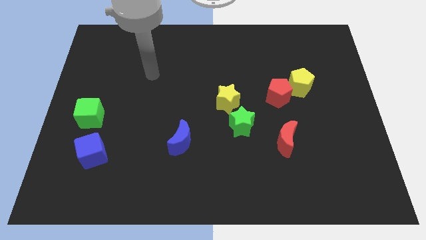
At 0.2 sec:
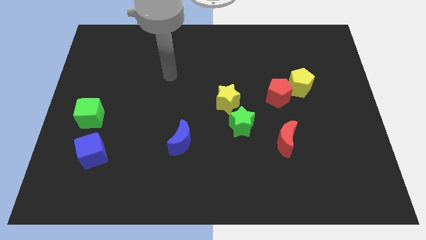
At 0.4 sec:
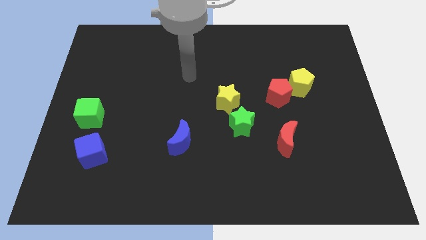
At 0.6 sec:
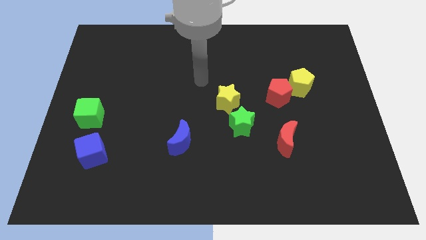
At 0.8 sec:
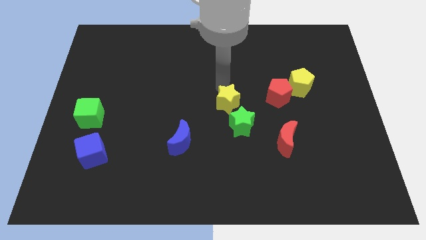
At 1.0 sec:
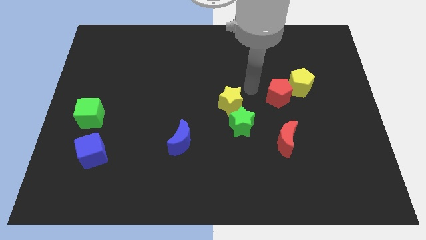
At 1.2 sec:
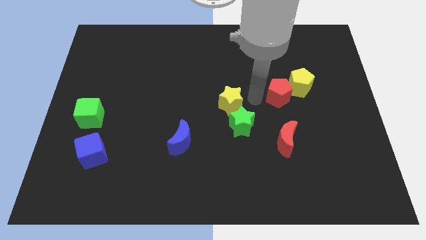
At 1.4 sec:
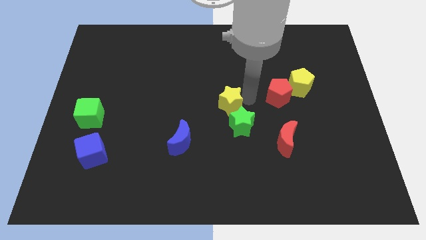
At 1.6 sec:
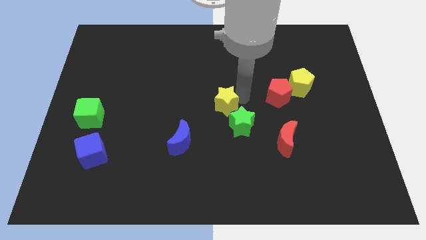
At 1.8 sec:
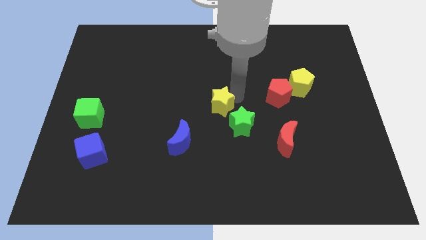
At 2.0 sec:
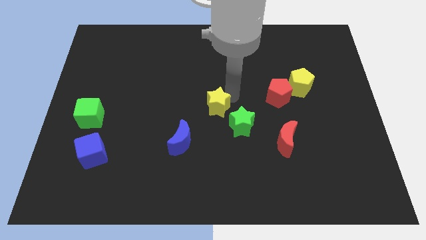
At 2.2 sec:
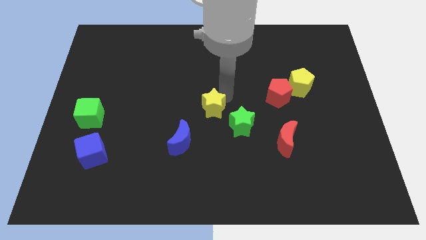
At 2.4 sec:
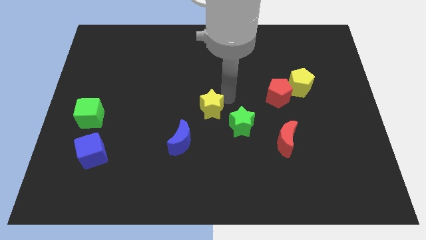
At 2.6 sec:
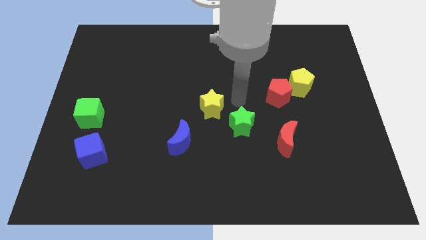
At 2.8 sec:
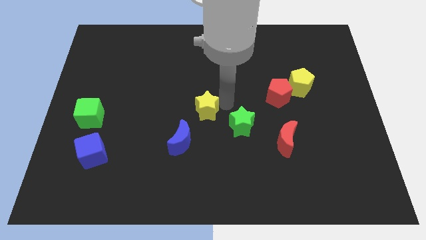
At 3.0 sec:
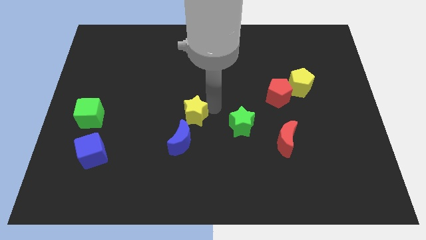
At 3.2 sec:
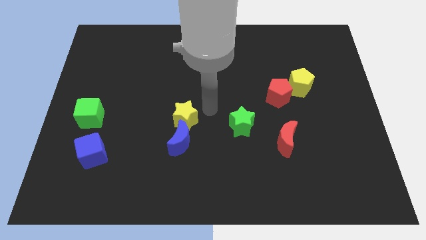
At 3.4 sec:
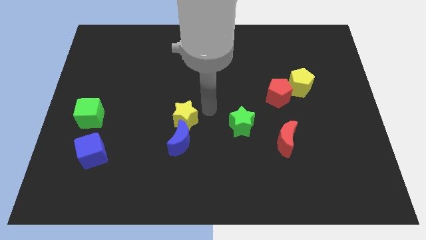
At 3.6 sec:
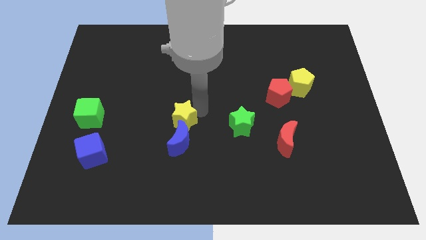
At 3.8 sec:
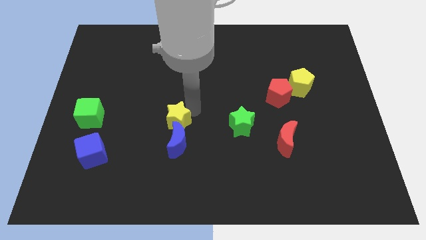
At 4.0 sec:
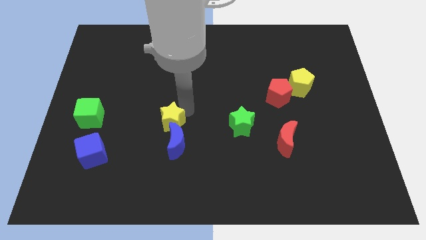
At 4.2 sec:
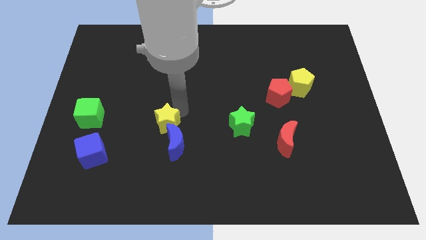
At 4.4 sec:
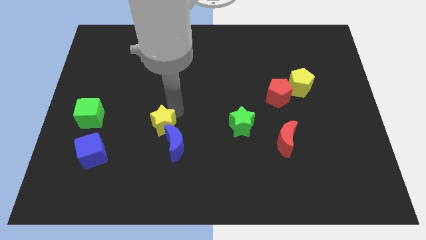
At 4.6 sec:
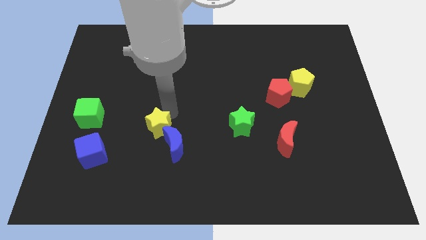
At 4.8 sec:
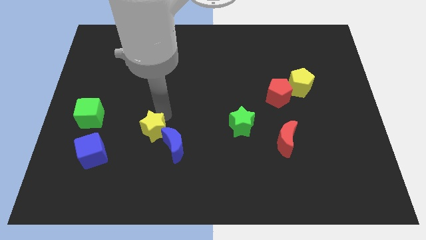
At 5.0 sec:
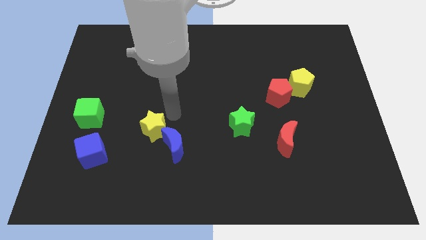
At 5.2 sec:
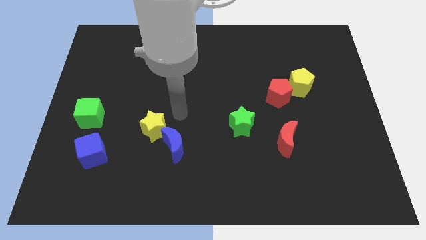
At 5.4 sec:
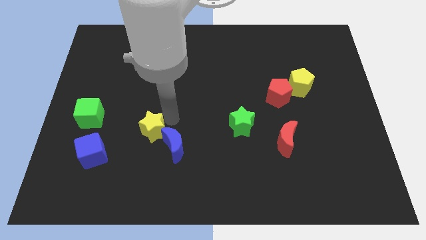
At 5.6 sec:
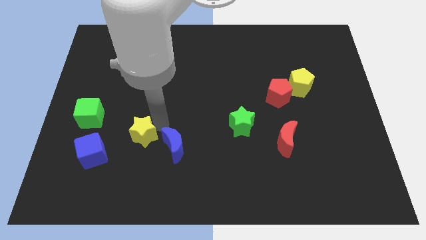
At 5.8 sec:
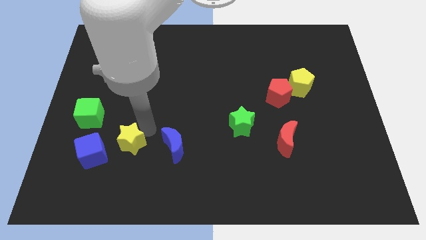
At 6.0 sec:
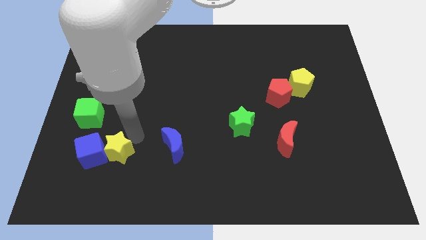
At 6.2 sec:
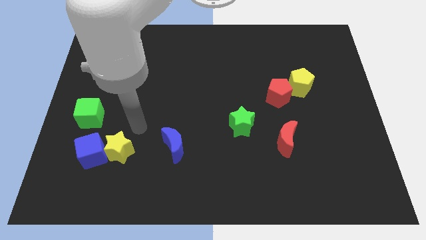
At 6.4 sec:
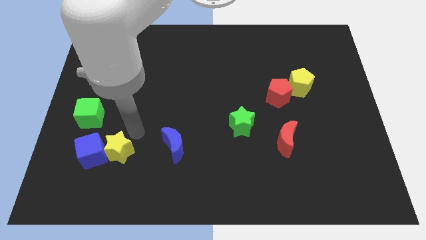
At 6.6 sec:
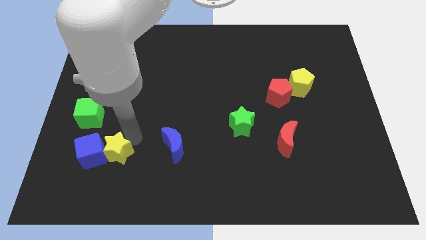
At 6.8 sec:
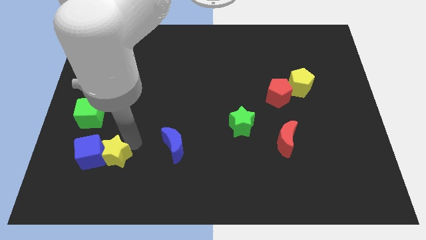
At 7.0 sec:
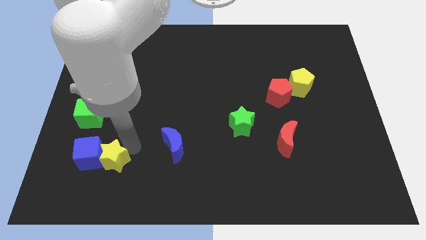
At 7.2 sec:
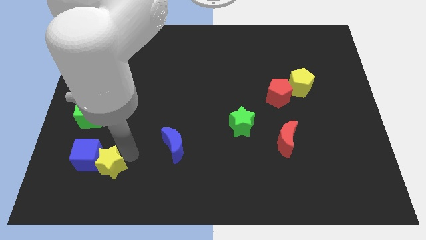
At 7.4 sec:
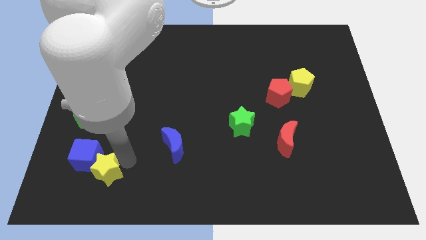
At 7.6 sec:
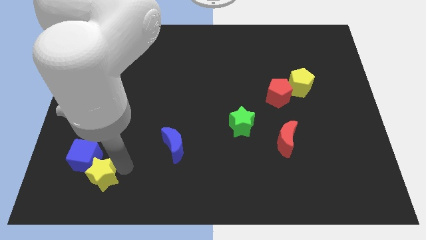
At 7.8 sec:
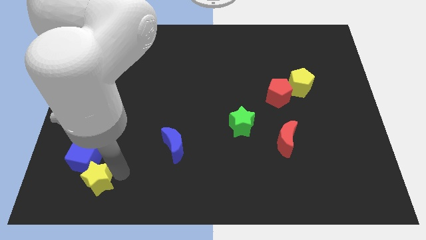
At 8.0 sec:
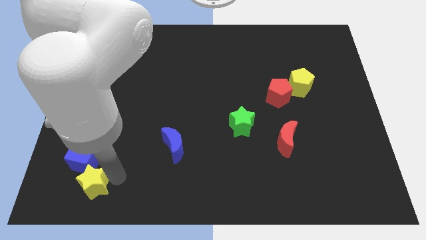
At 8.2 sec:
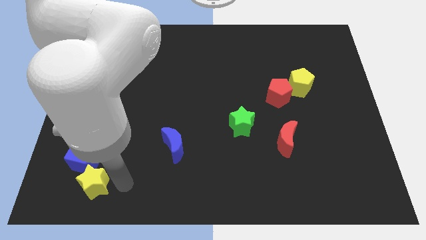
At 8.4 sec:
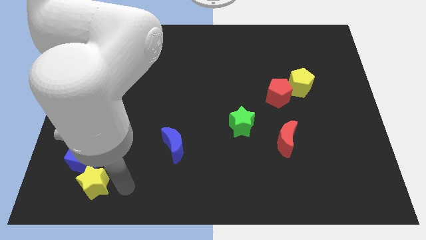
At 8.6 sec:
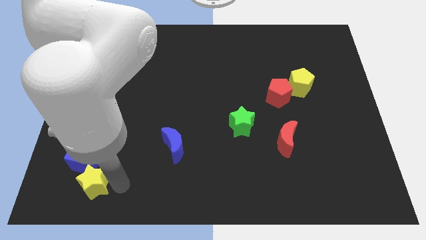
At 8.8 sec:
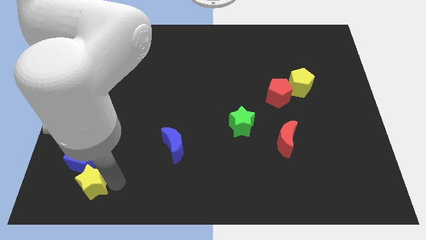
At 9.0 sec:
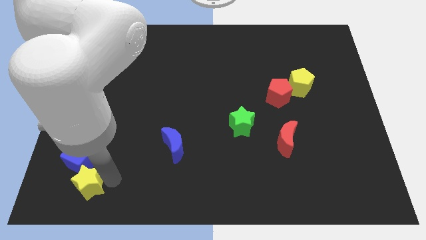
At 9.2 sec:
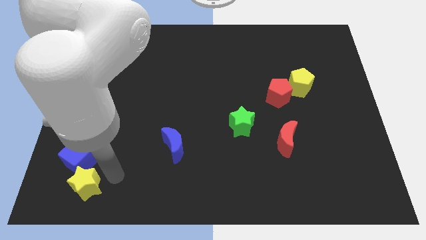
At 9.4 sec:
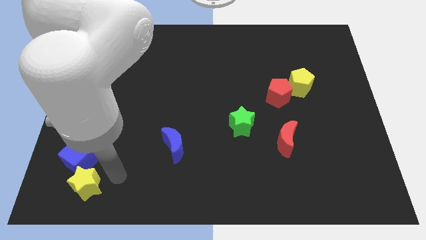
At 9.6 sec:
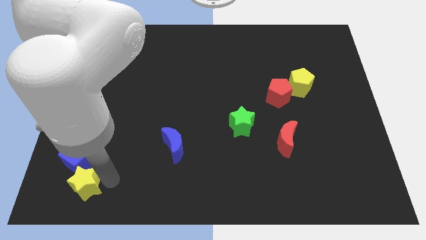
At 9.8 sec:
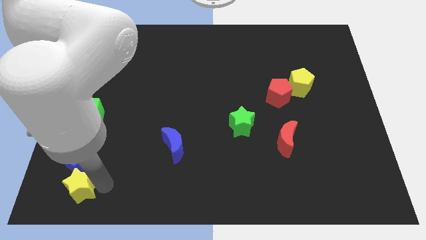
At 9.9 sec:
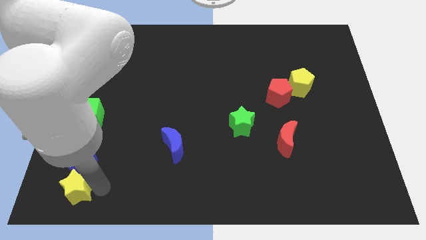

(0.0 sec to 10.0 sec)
slide the yellow star to the bottom left of the board

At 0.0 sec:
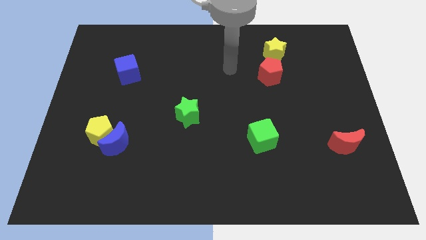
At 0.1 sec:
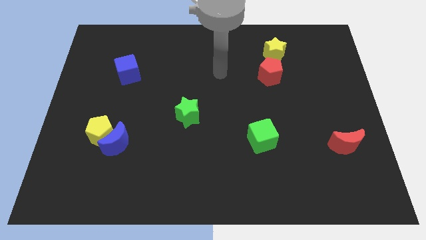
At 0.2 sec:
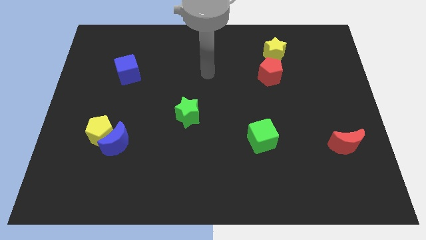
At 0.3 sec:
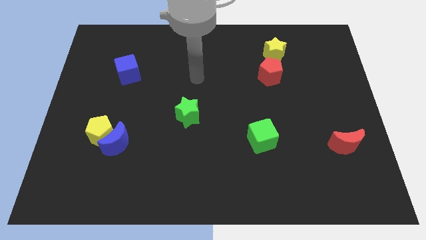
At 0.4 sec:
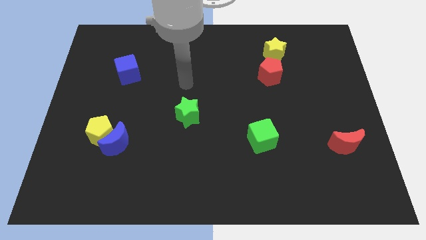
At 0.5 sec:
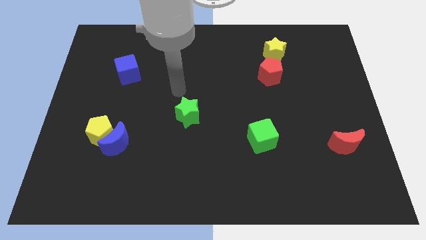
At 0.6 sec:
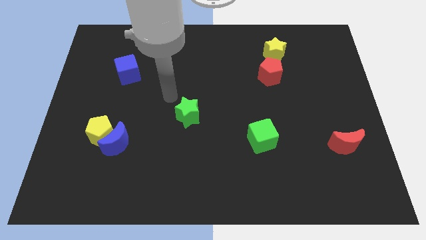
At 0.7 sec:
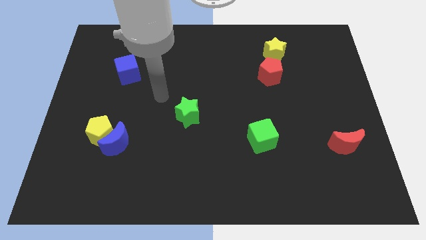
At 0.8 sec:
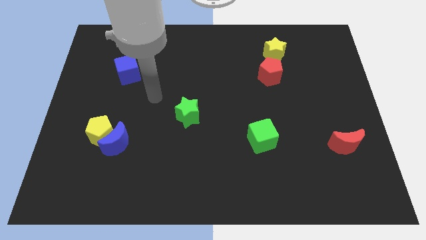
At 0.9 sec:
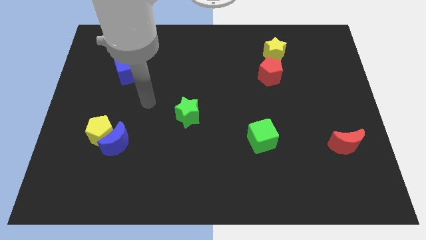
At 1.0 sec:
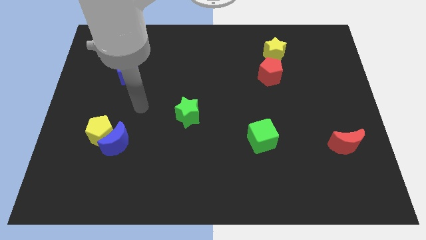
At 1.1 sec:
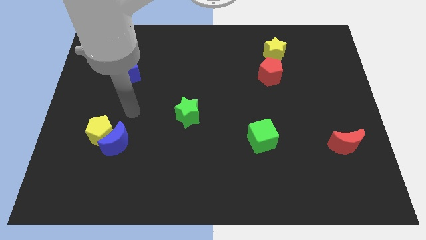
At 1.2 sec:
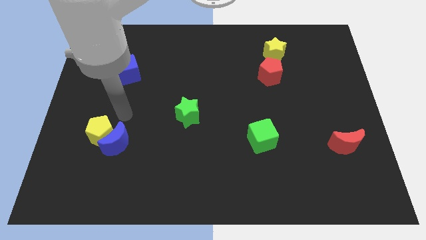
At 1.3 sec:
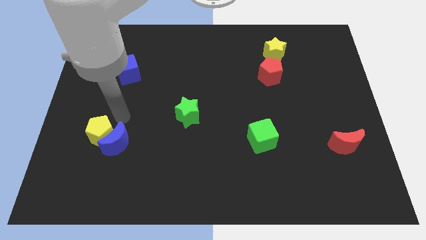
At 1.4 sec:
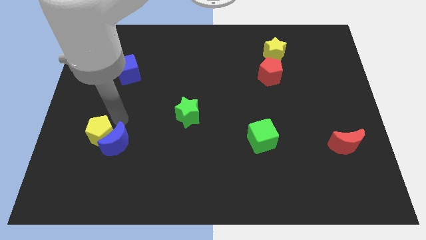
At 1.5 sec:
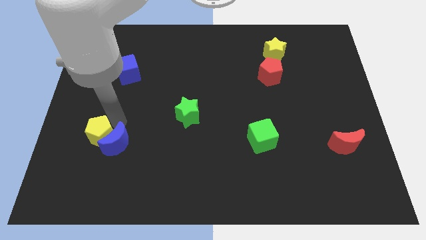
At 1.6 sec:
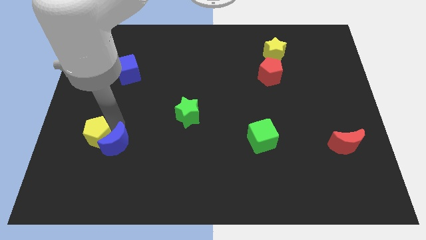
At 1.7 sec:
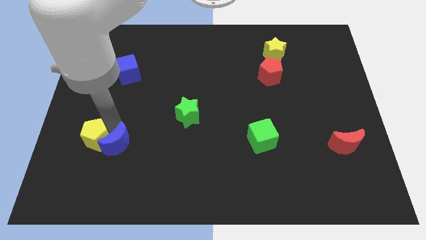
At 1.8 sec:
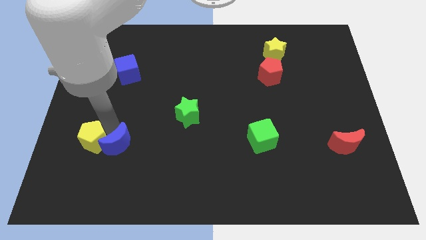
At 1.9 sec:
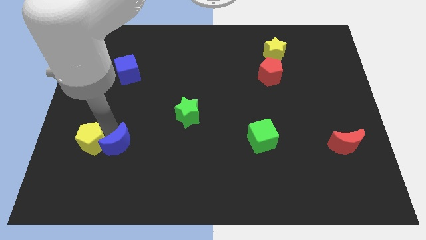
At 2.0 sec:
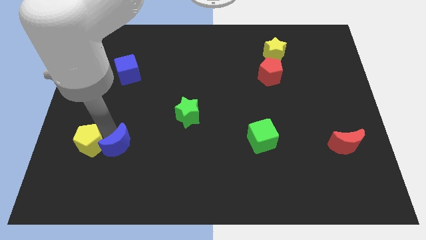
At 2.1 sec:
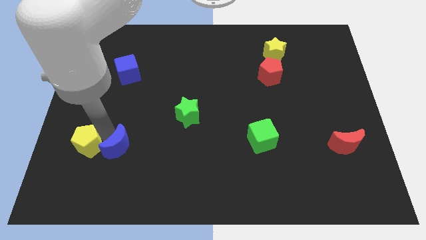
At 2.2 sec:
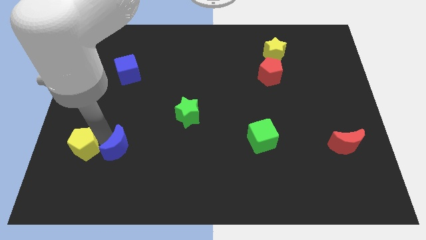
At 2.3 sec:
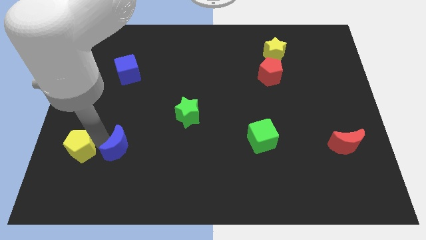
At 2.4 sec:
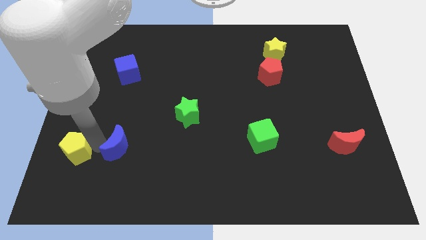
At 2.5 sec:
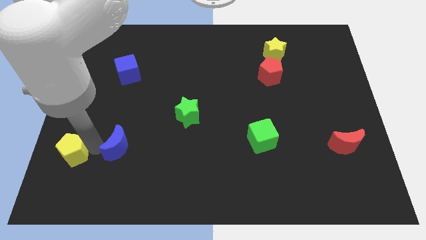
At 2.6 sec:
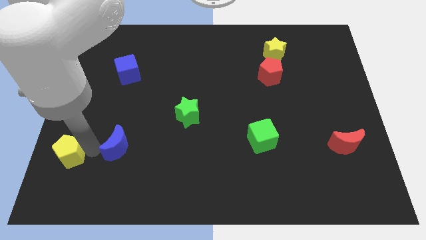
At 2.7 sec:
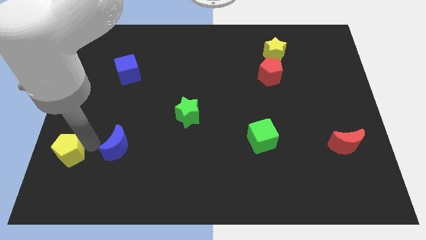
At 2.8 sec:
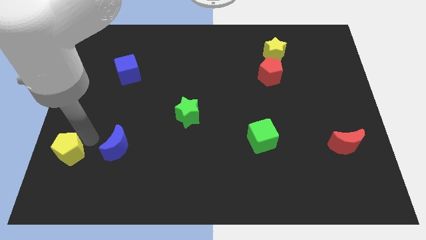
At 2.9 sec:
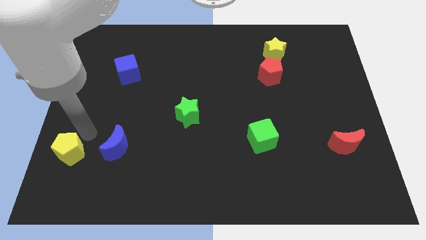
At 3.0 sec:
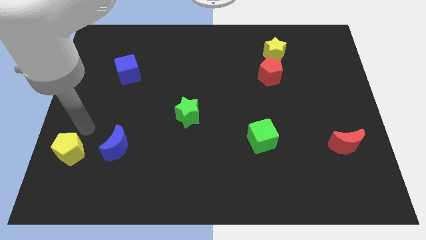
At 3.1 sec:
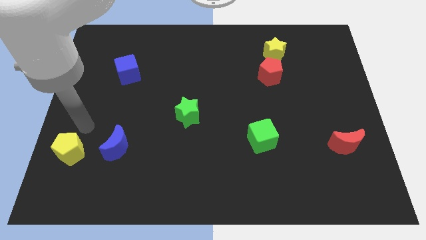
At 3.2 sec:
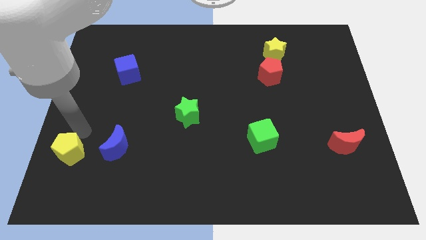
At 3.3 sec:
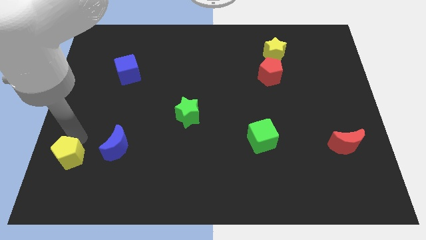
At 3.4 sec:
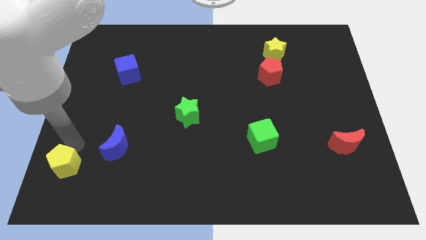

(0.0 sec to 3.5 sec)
slide the yellow pentagon to the bottom left corner
